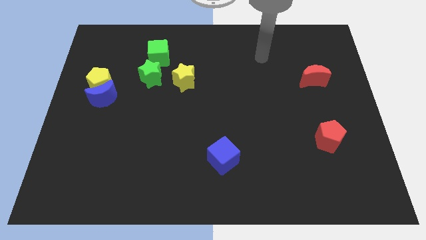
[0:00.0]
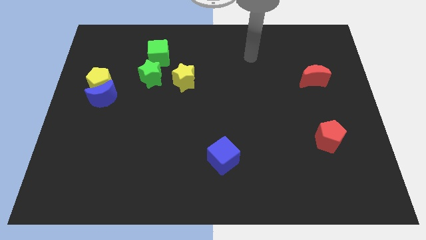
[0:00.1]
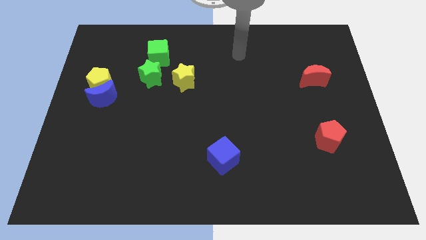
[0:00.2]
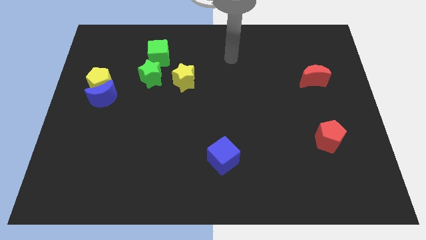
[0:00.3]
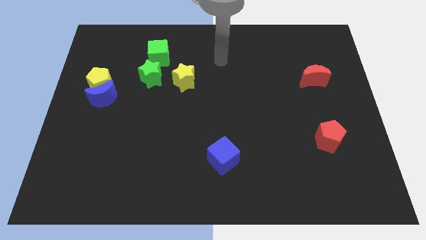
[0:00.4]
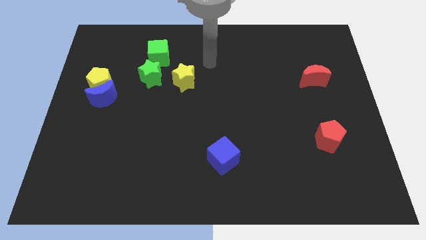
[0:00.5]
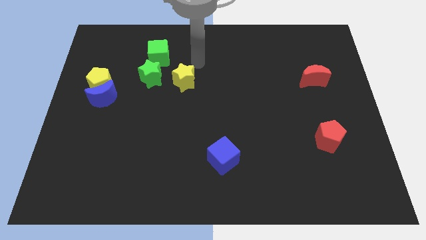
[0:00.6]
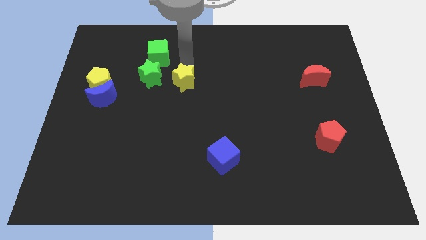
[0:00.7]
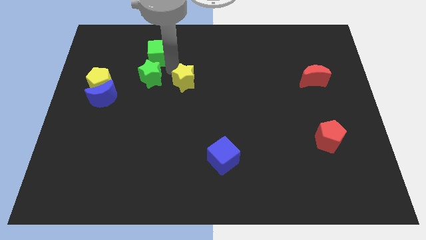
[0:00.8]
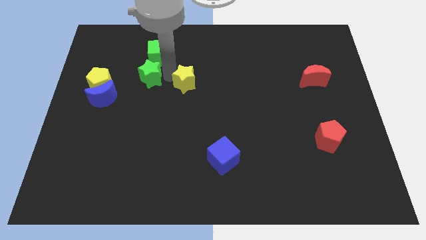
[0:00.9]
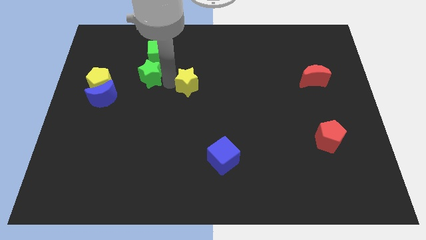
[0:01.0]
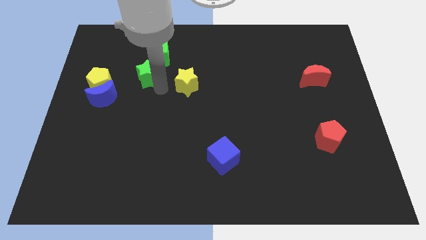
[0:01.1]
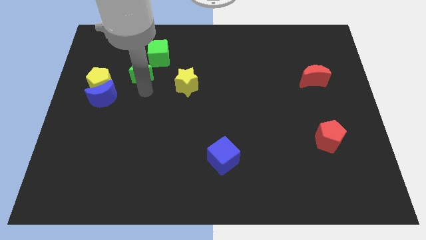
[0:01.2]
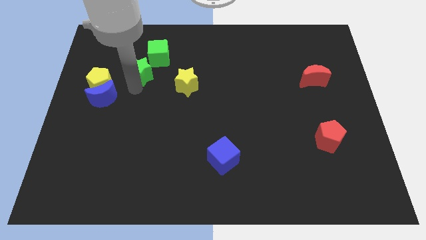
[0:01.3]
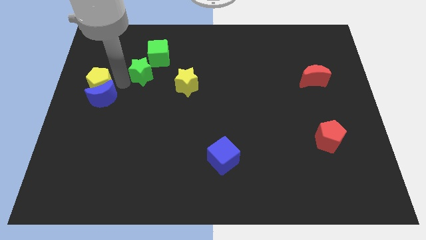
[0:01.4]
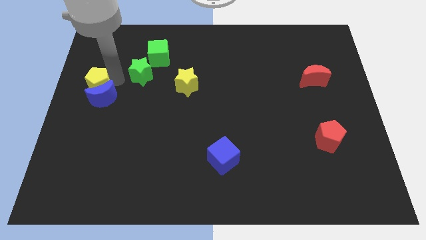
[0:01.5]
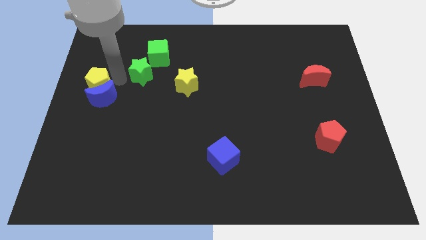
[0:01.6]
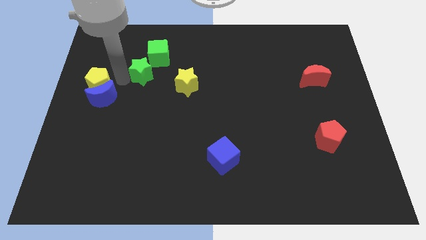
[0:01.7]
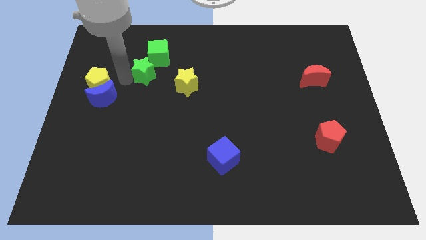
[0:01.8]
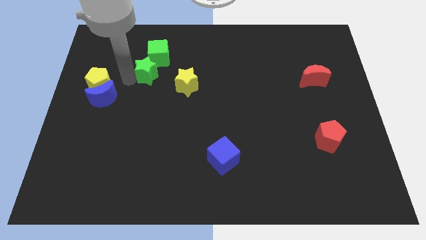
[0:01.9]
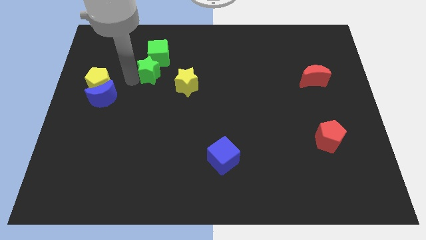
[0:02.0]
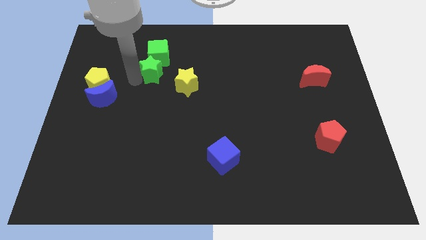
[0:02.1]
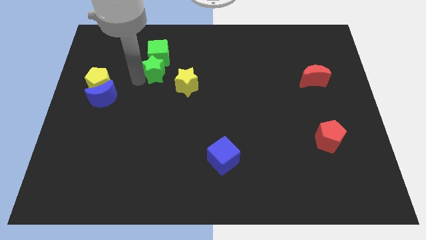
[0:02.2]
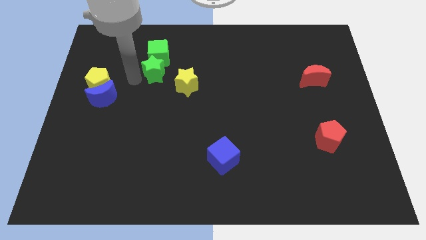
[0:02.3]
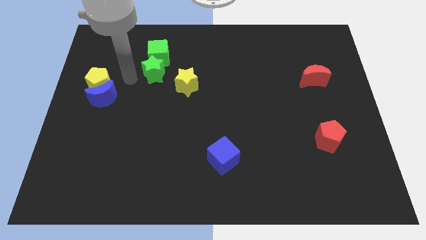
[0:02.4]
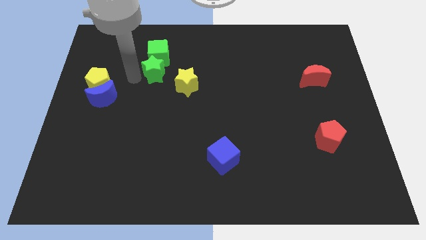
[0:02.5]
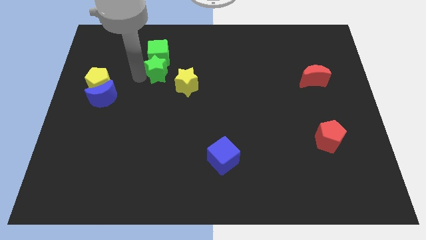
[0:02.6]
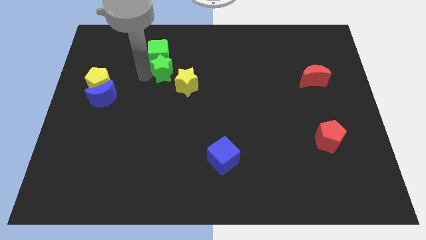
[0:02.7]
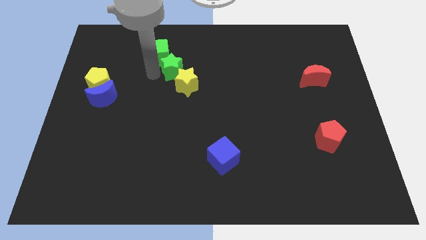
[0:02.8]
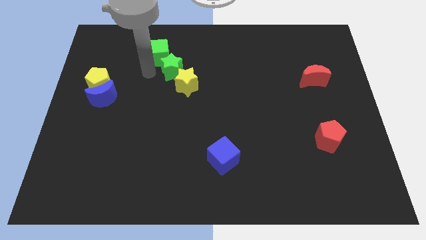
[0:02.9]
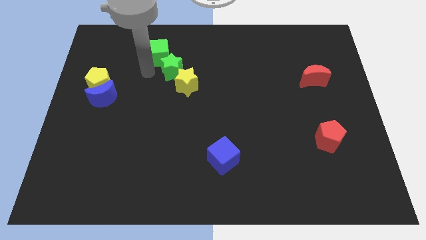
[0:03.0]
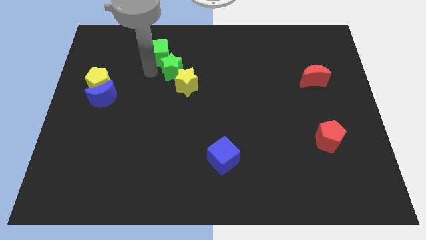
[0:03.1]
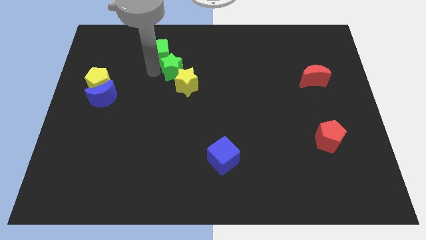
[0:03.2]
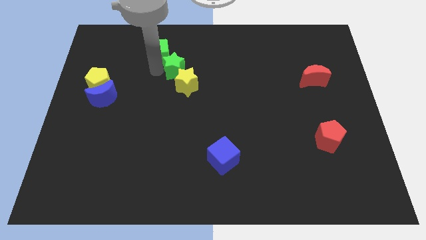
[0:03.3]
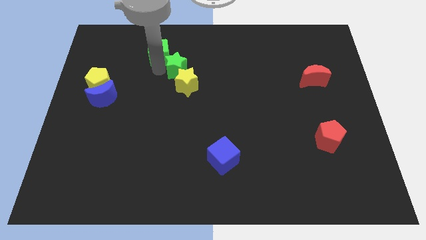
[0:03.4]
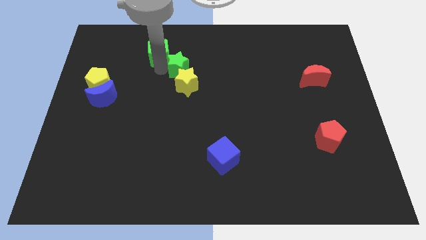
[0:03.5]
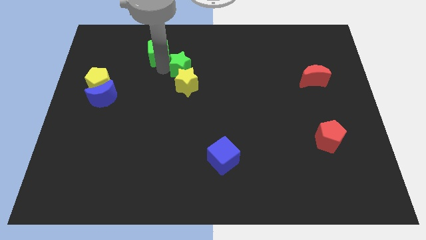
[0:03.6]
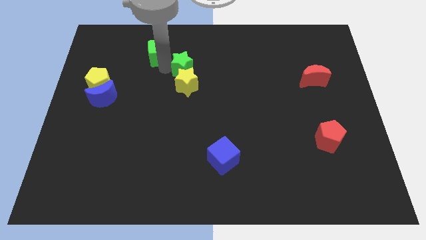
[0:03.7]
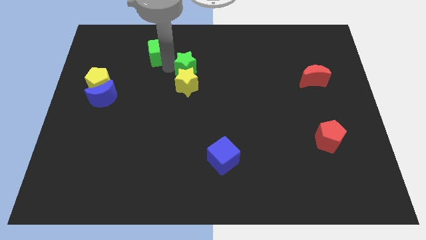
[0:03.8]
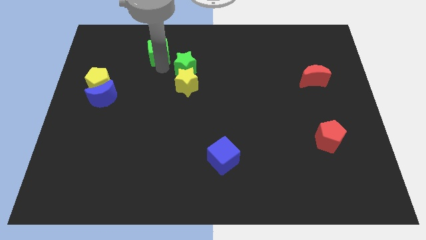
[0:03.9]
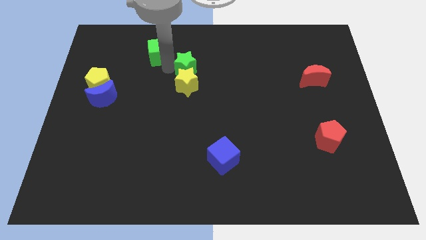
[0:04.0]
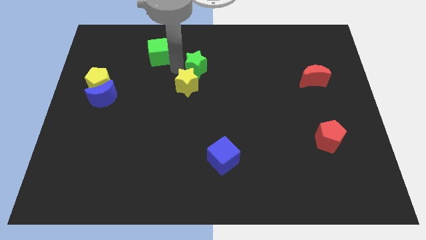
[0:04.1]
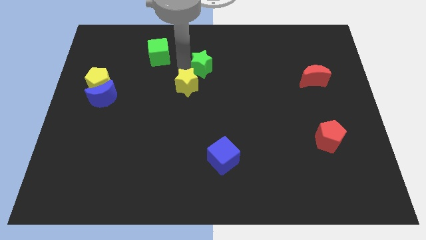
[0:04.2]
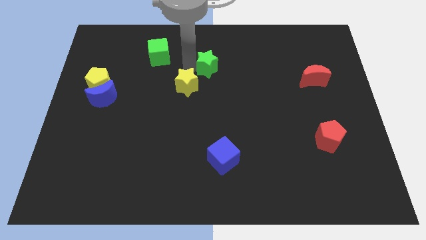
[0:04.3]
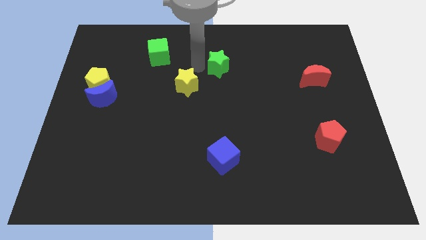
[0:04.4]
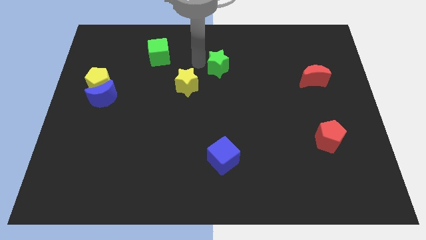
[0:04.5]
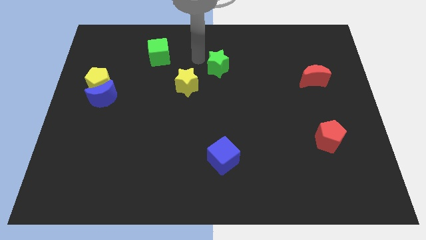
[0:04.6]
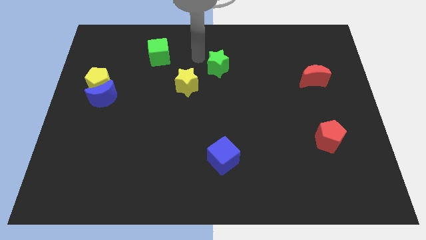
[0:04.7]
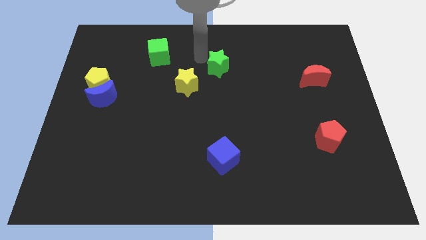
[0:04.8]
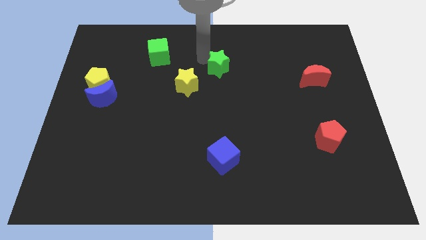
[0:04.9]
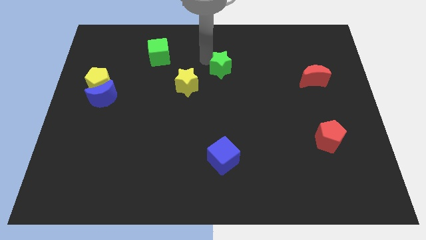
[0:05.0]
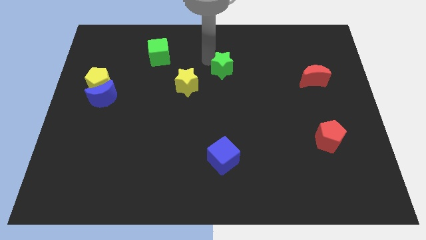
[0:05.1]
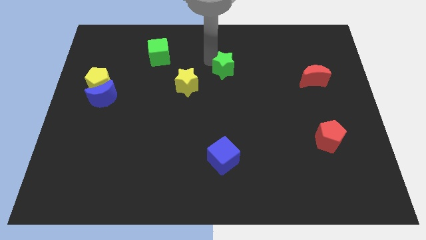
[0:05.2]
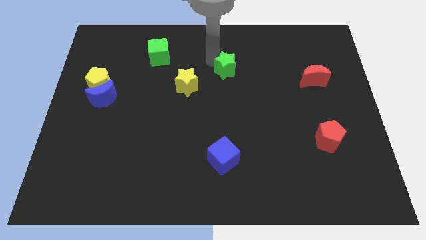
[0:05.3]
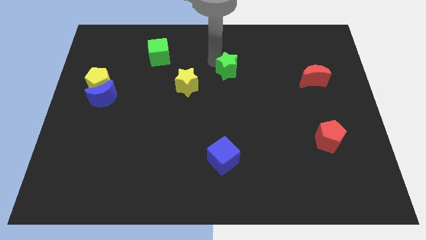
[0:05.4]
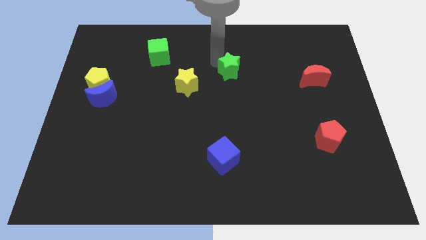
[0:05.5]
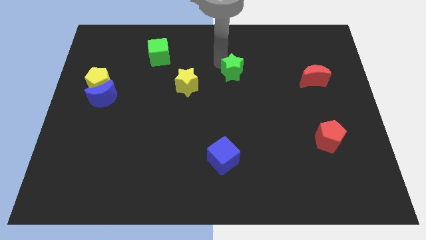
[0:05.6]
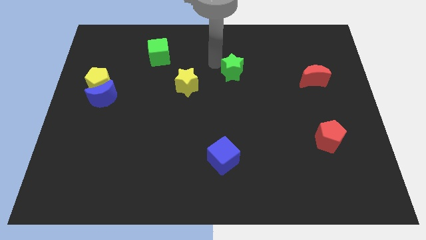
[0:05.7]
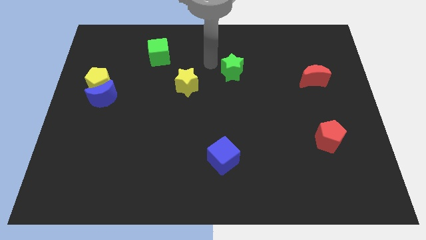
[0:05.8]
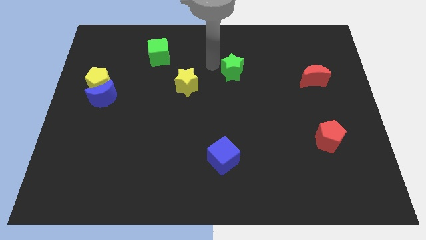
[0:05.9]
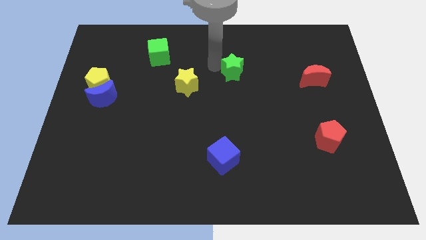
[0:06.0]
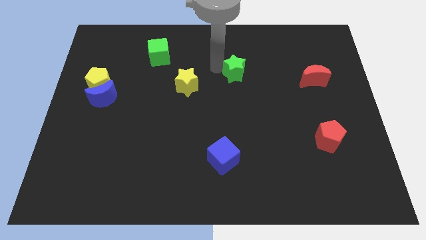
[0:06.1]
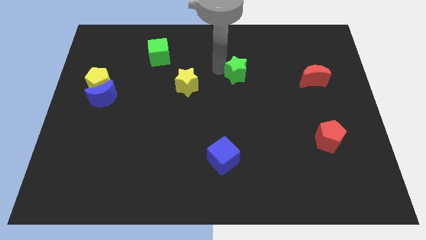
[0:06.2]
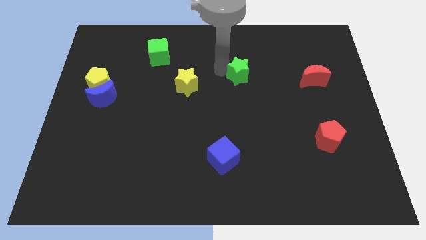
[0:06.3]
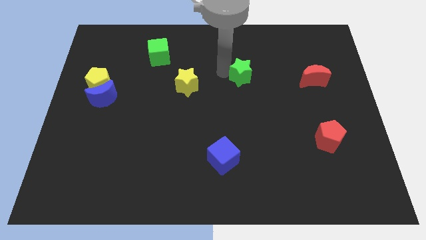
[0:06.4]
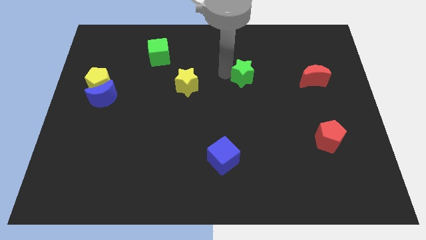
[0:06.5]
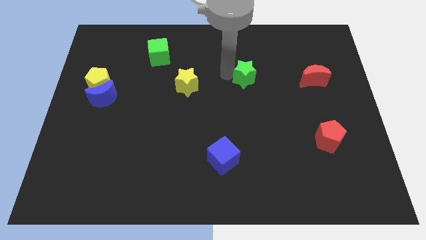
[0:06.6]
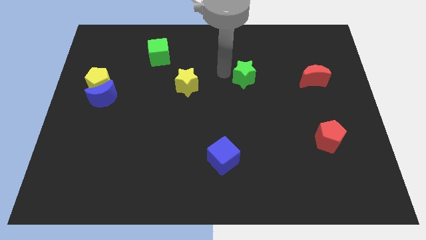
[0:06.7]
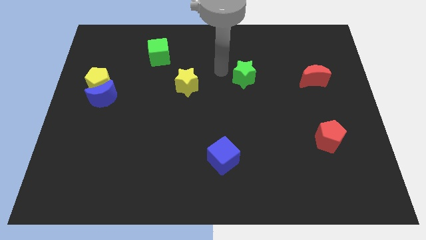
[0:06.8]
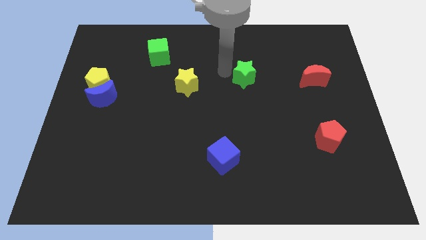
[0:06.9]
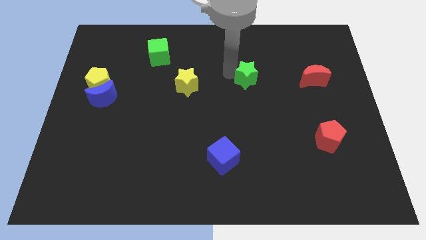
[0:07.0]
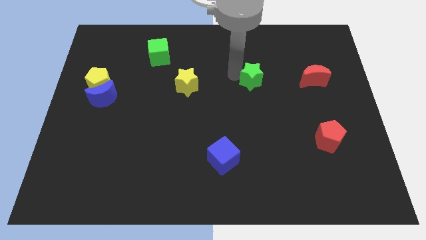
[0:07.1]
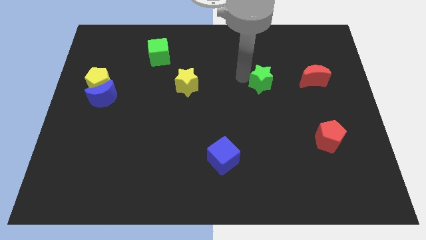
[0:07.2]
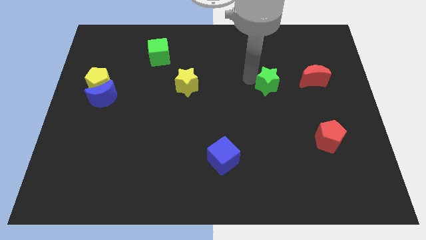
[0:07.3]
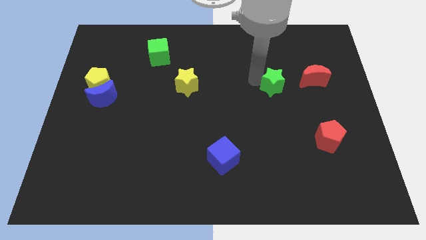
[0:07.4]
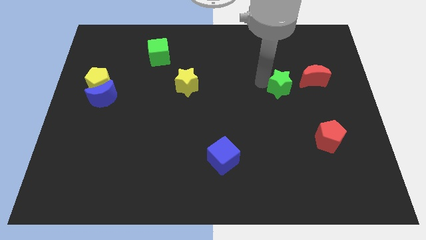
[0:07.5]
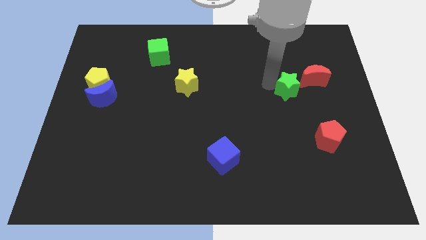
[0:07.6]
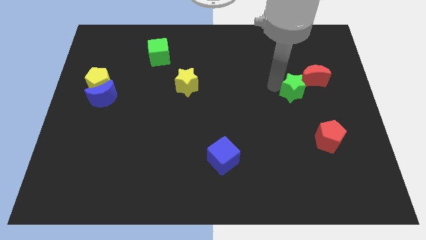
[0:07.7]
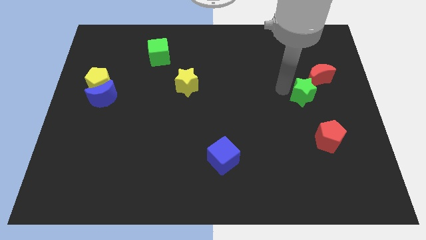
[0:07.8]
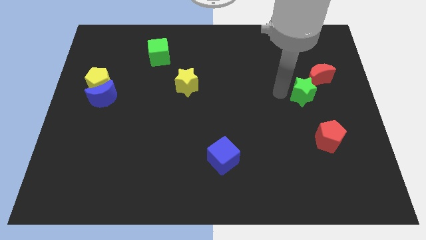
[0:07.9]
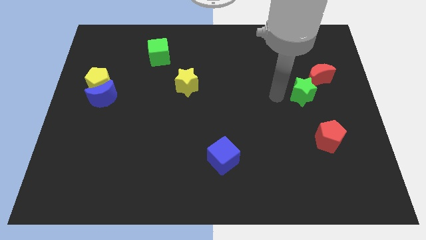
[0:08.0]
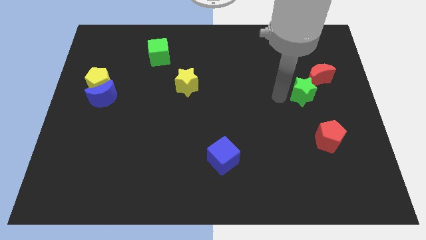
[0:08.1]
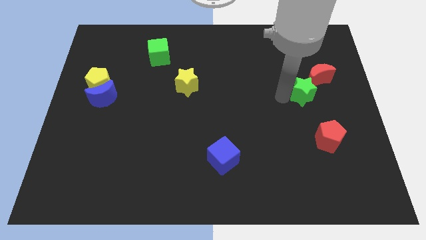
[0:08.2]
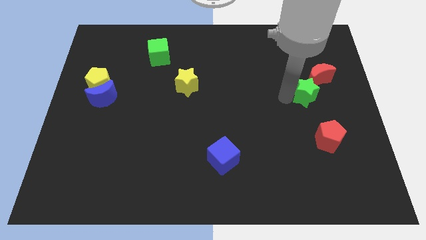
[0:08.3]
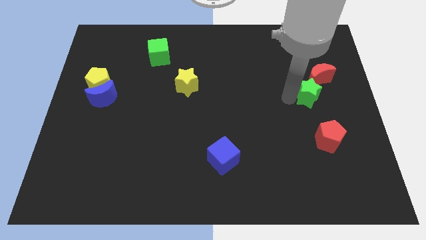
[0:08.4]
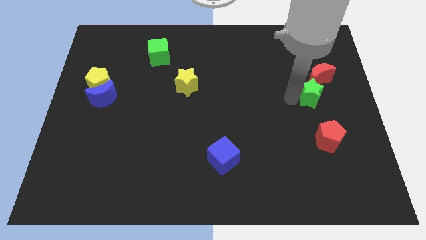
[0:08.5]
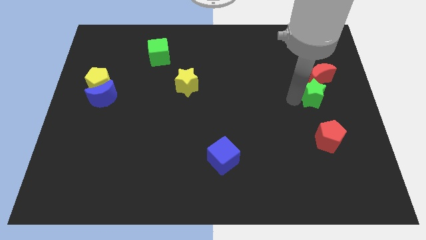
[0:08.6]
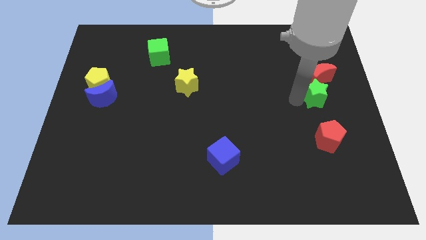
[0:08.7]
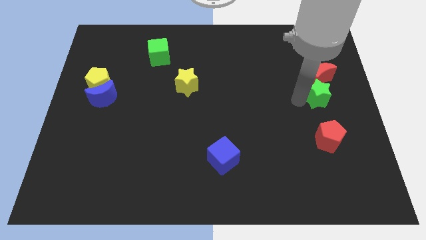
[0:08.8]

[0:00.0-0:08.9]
slide the green star to the right side
